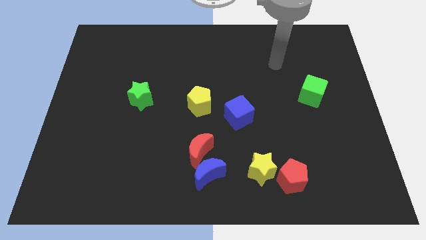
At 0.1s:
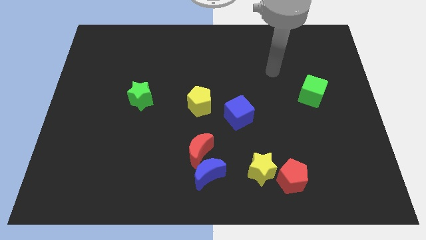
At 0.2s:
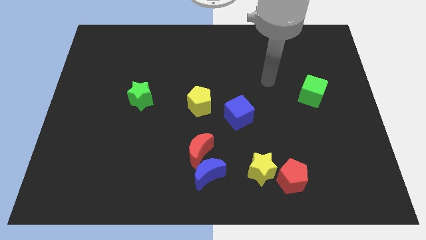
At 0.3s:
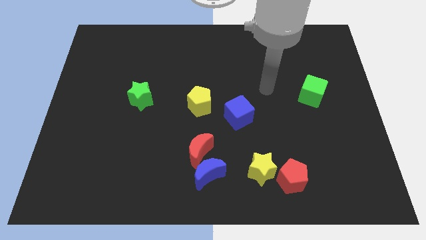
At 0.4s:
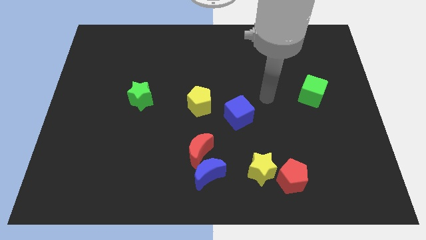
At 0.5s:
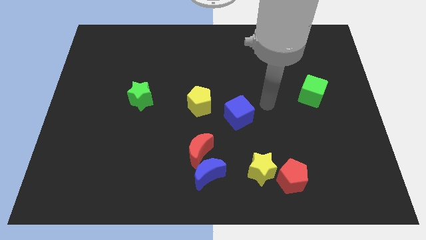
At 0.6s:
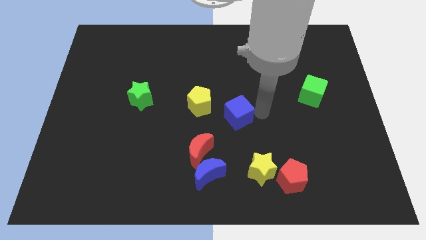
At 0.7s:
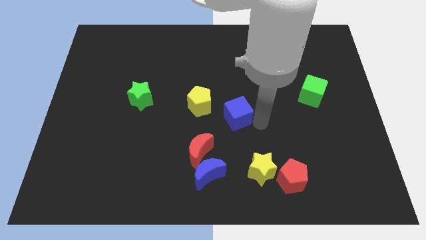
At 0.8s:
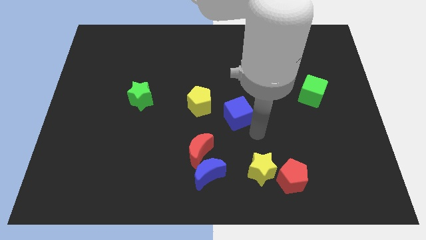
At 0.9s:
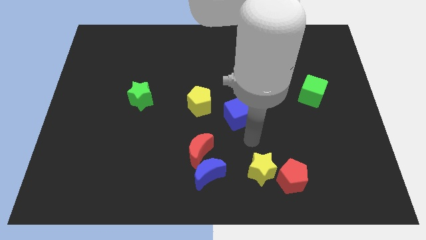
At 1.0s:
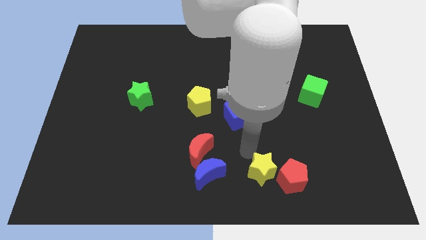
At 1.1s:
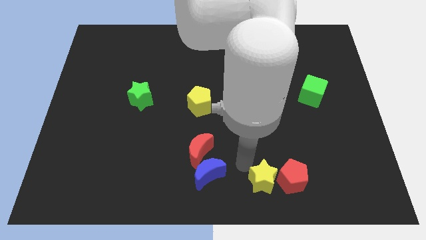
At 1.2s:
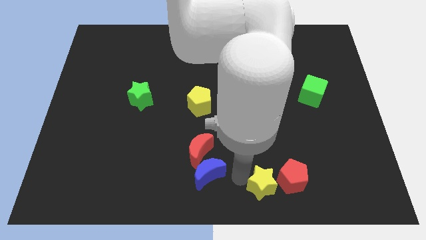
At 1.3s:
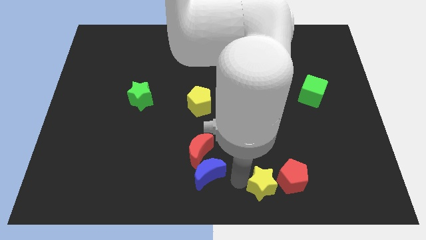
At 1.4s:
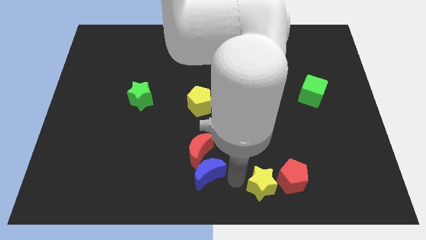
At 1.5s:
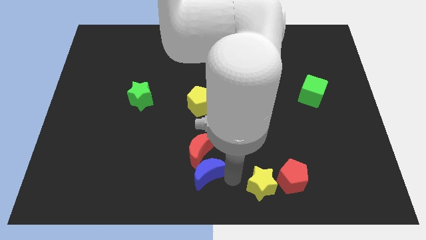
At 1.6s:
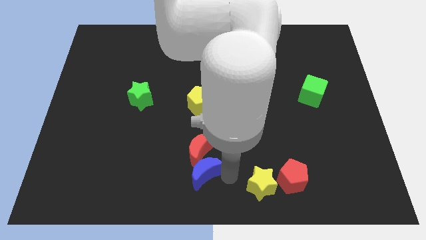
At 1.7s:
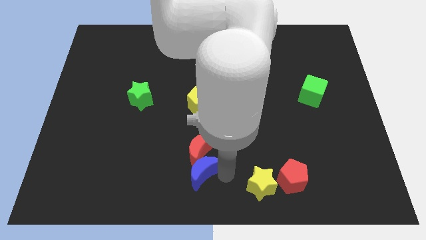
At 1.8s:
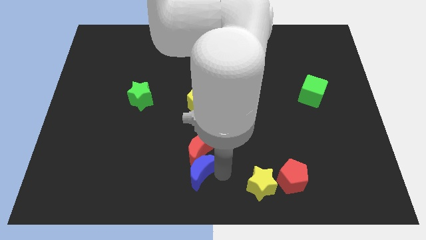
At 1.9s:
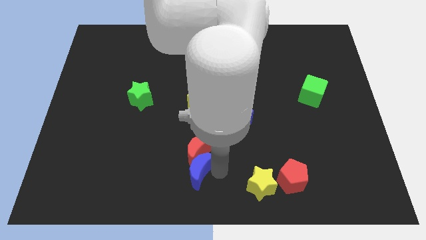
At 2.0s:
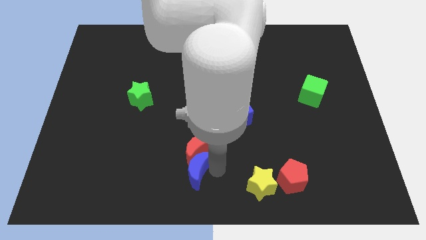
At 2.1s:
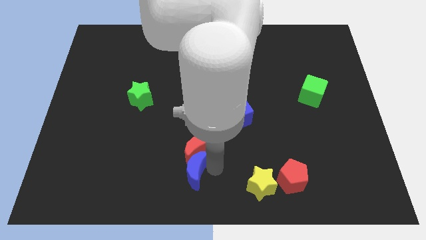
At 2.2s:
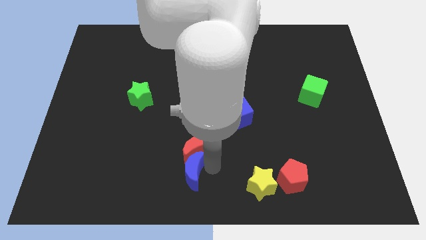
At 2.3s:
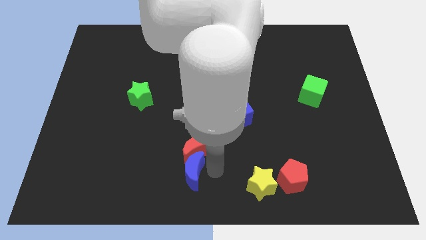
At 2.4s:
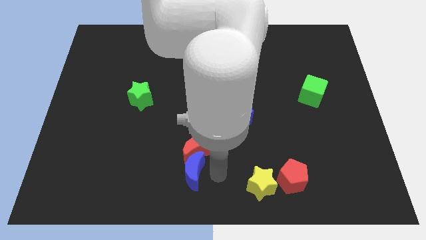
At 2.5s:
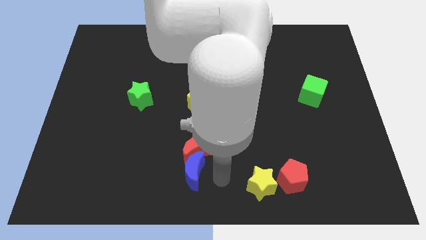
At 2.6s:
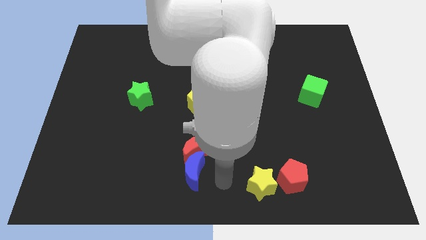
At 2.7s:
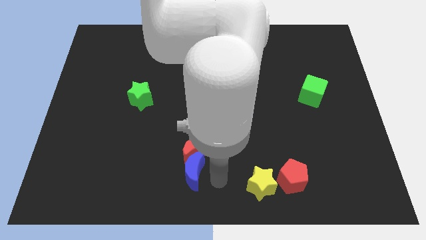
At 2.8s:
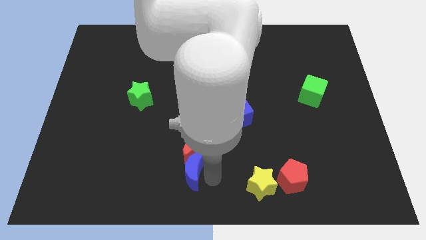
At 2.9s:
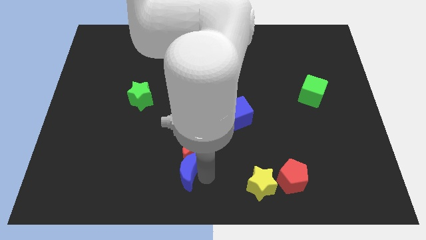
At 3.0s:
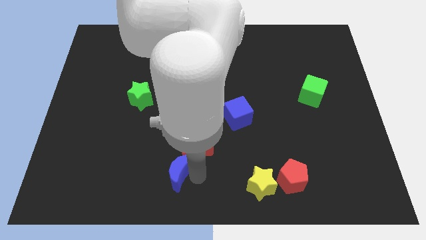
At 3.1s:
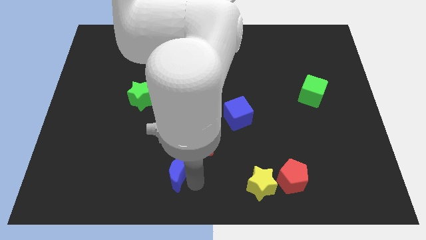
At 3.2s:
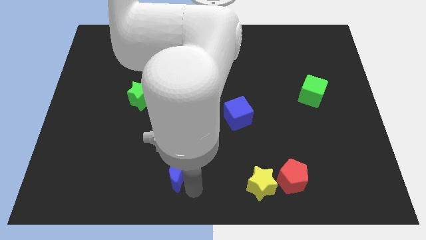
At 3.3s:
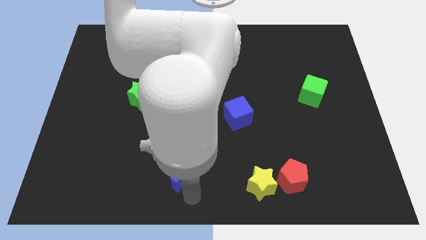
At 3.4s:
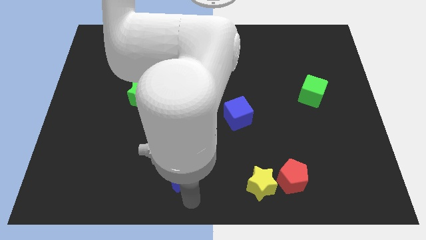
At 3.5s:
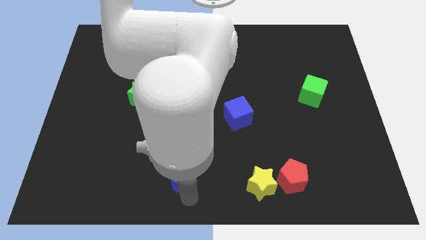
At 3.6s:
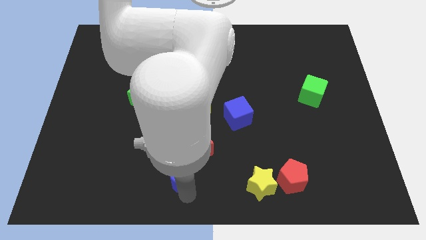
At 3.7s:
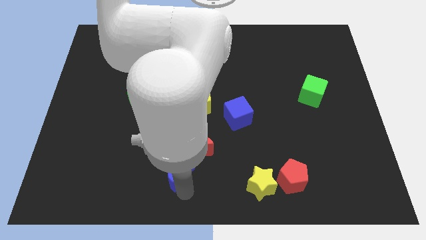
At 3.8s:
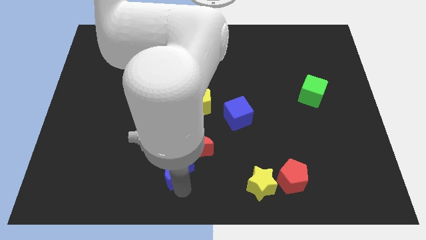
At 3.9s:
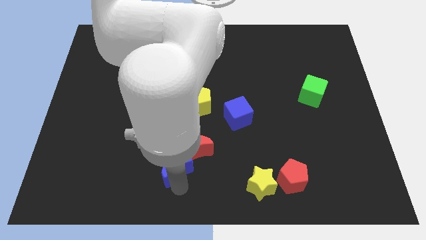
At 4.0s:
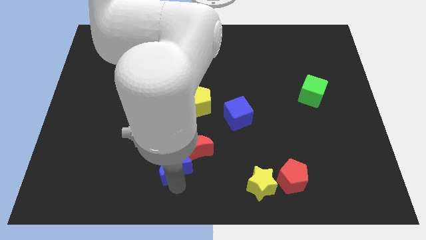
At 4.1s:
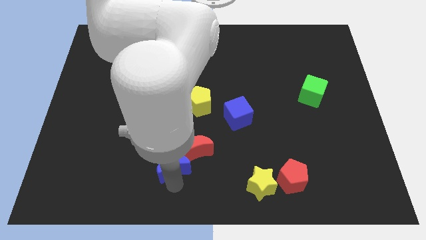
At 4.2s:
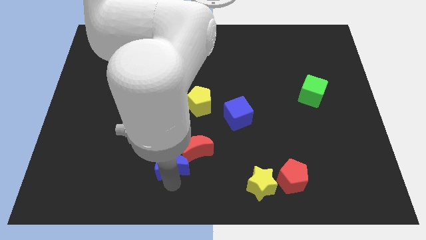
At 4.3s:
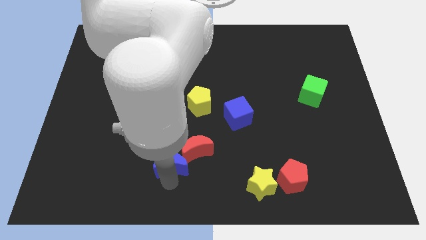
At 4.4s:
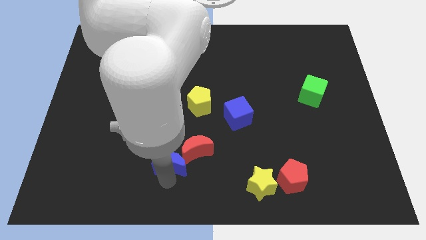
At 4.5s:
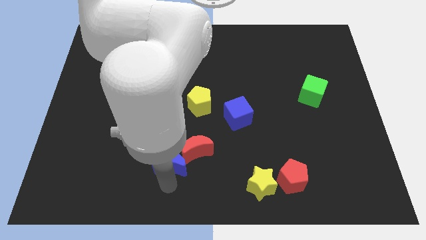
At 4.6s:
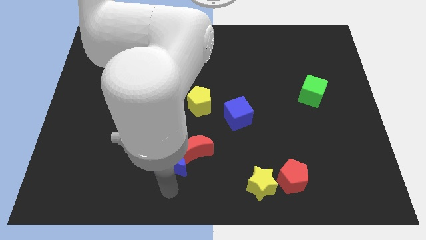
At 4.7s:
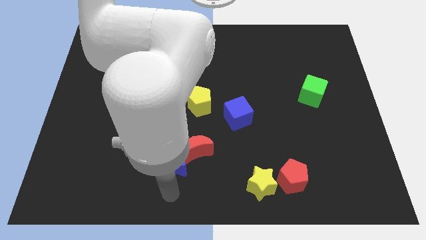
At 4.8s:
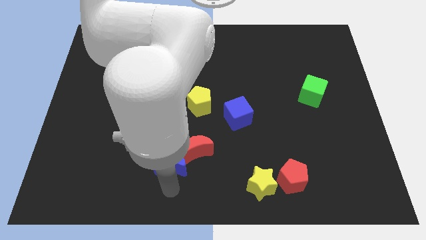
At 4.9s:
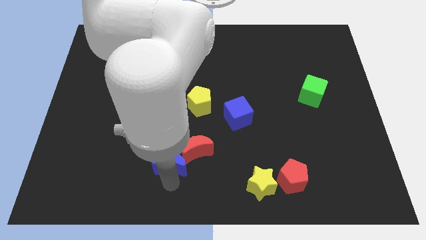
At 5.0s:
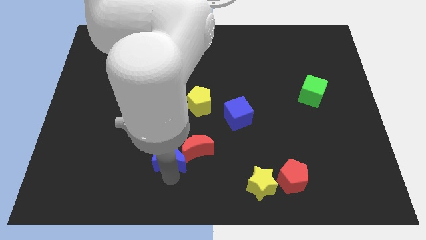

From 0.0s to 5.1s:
slide the blue moon diagonally upwards and to the left a bit

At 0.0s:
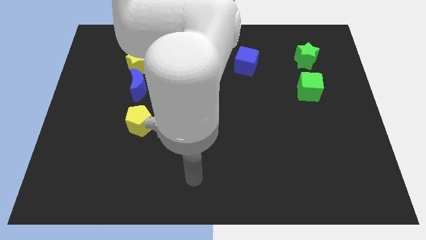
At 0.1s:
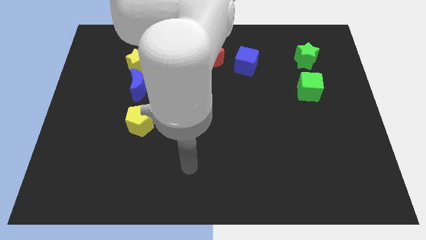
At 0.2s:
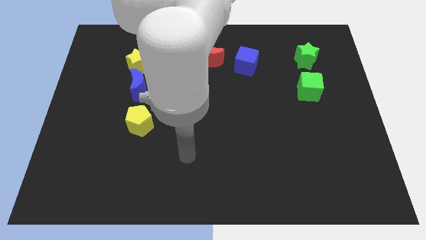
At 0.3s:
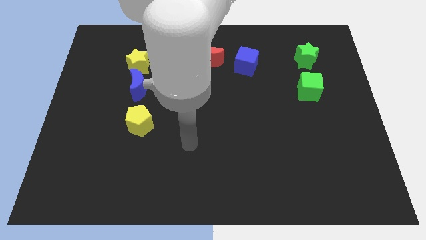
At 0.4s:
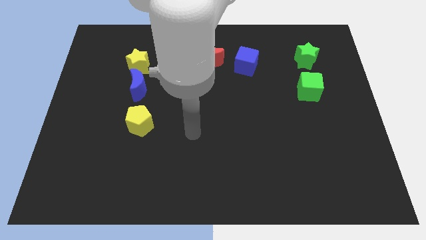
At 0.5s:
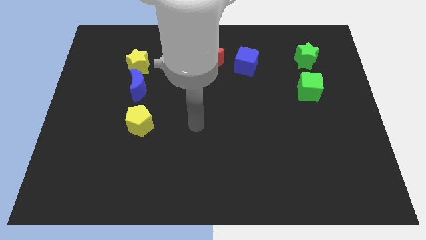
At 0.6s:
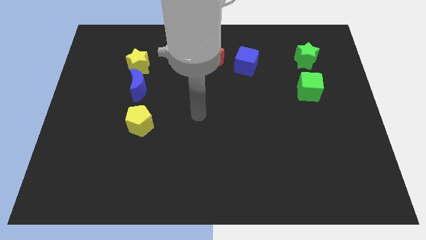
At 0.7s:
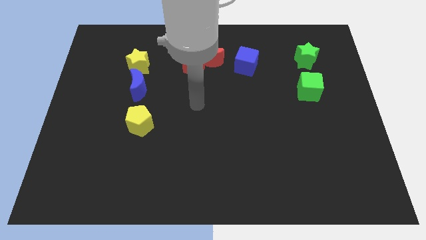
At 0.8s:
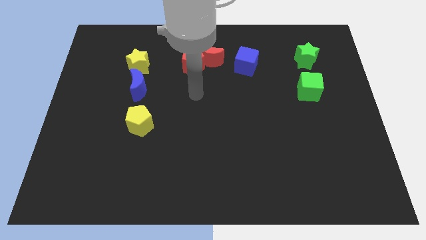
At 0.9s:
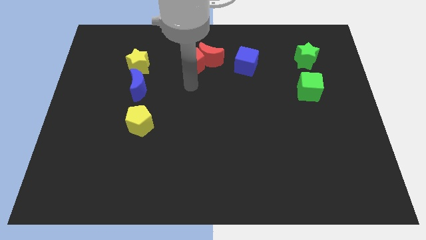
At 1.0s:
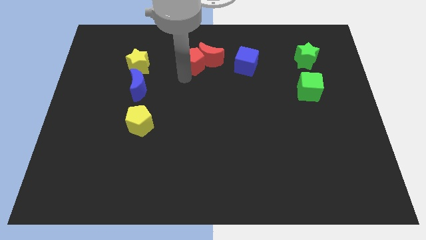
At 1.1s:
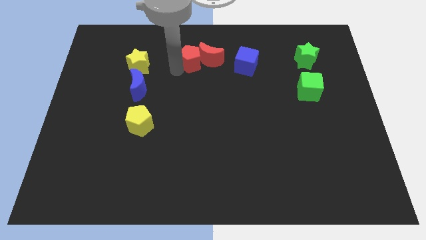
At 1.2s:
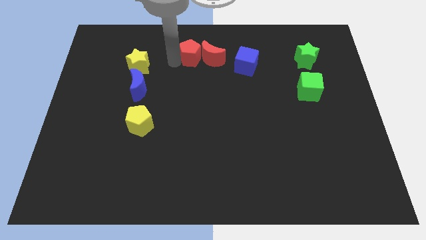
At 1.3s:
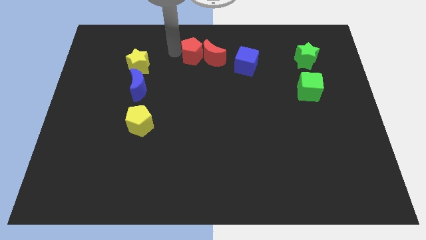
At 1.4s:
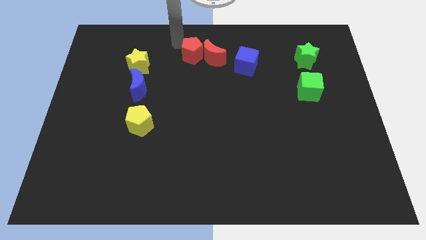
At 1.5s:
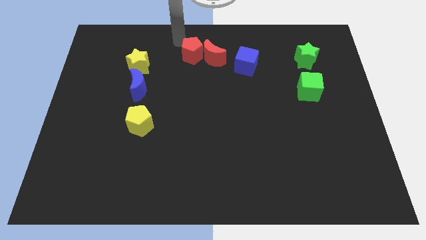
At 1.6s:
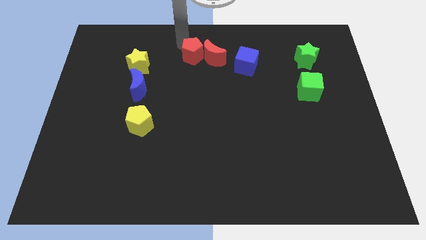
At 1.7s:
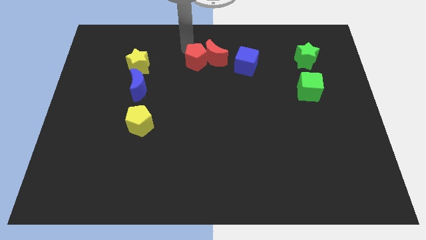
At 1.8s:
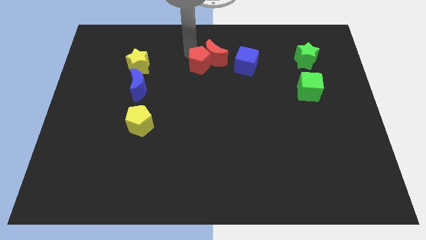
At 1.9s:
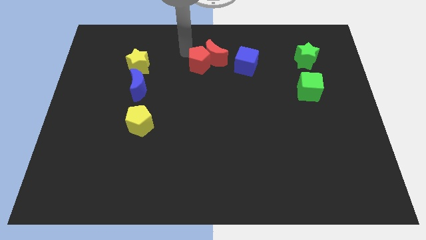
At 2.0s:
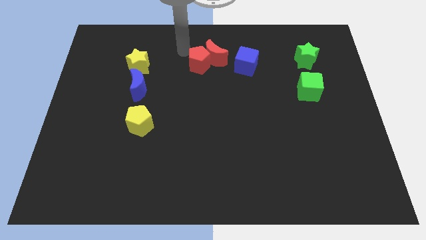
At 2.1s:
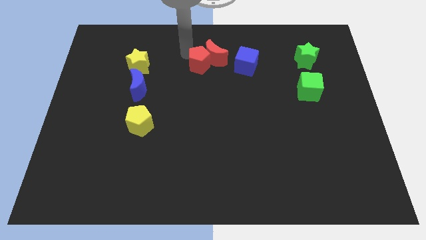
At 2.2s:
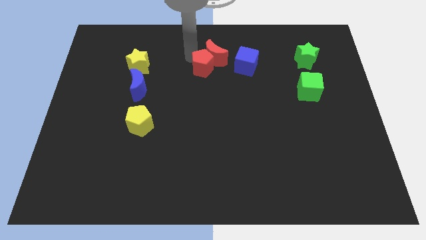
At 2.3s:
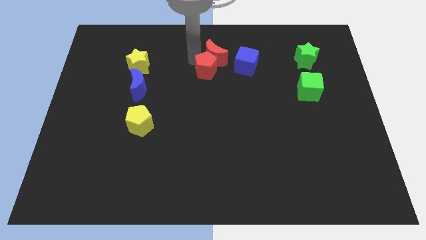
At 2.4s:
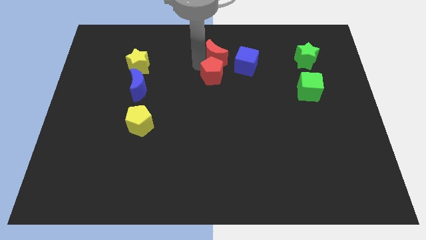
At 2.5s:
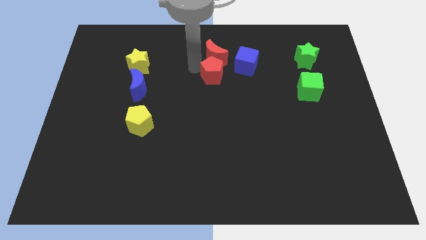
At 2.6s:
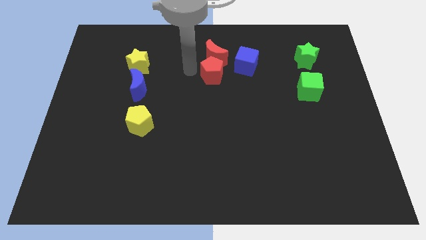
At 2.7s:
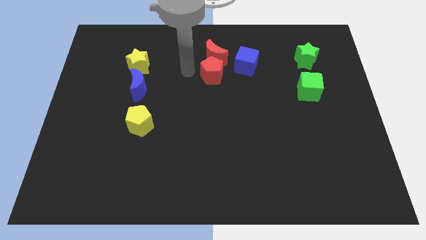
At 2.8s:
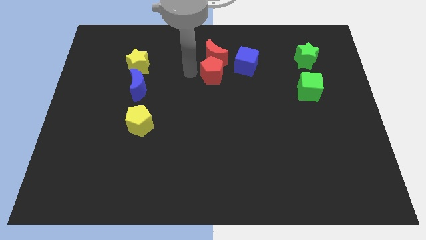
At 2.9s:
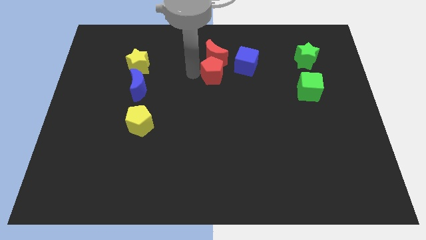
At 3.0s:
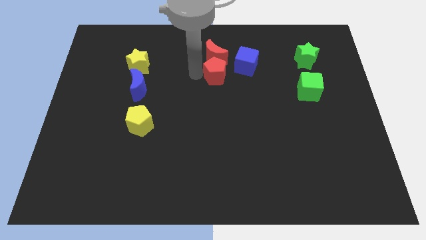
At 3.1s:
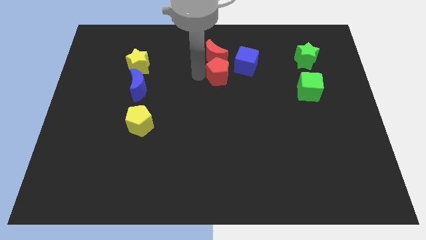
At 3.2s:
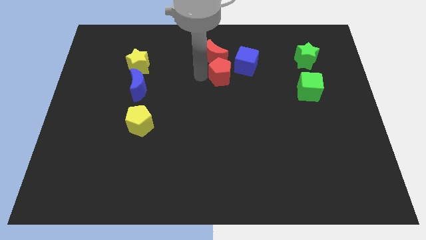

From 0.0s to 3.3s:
push the red pentagon a little bit to the right
